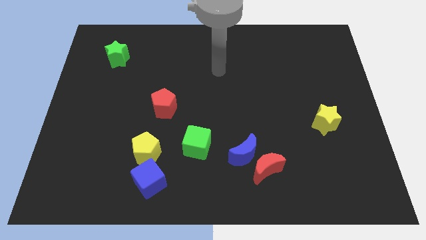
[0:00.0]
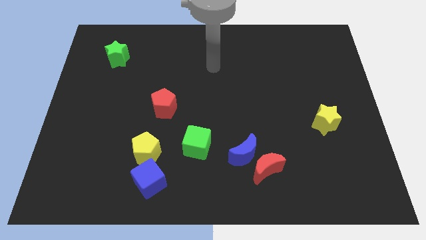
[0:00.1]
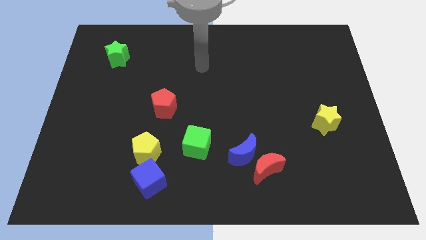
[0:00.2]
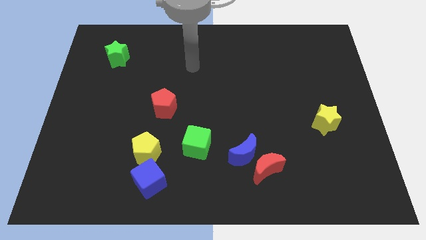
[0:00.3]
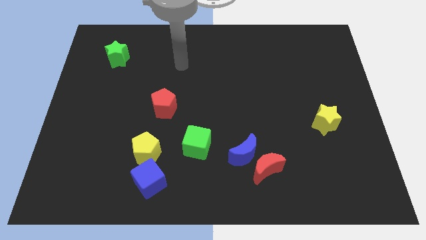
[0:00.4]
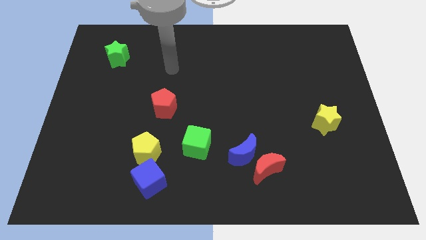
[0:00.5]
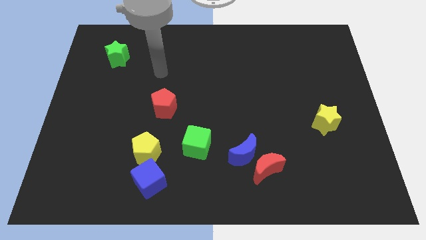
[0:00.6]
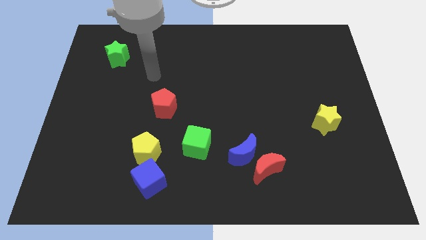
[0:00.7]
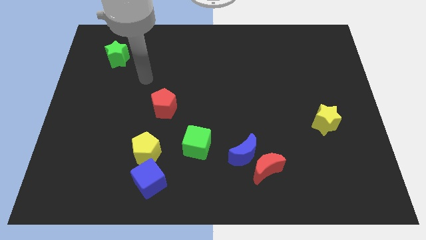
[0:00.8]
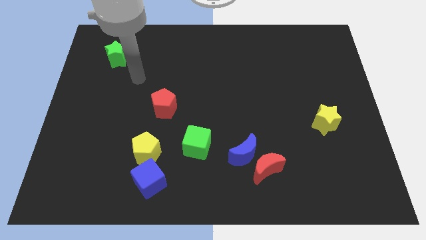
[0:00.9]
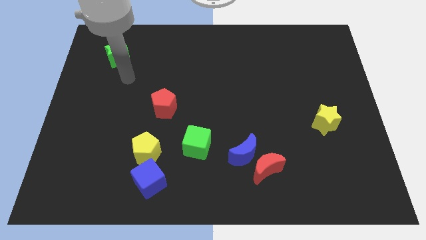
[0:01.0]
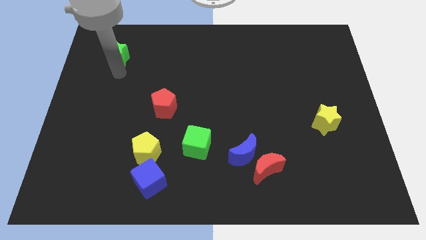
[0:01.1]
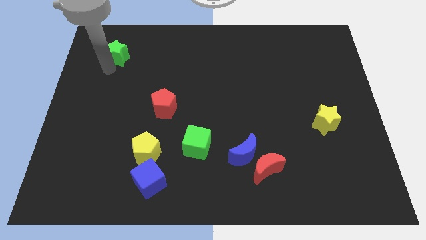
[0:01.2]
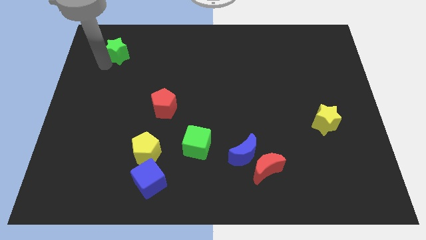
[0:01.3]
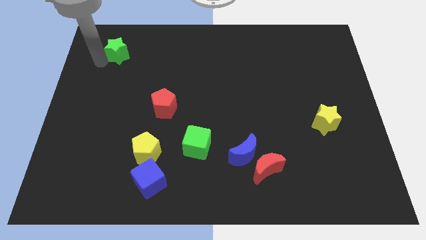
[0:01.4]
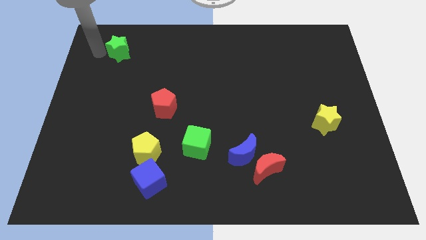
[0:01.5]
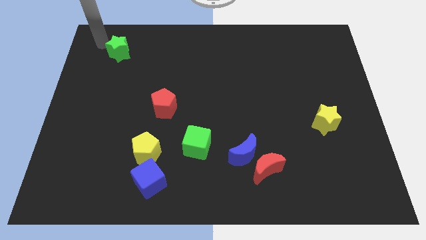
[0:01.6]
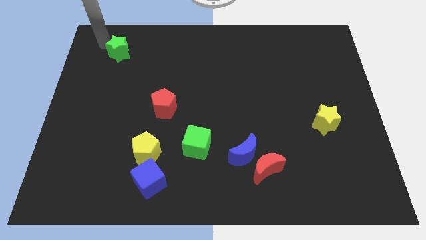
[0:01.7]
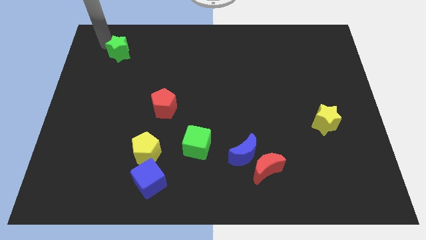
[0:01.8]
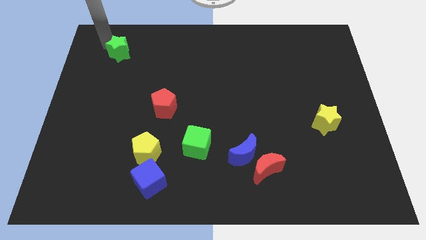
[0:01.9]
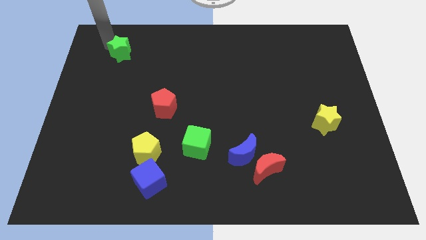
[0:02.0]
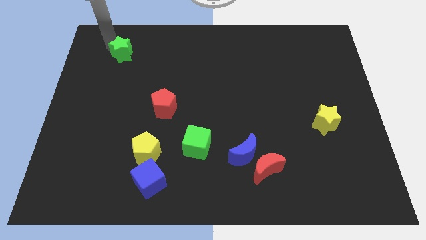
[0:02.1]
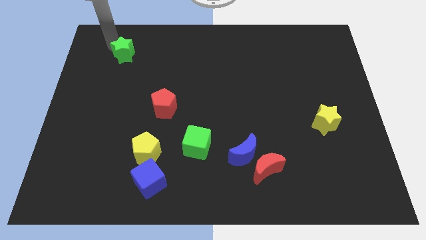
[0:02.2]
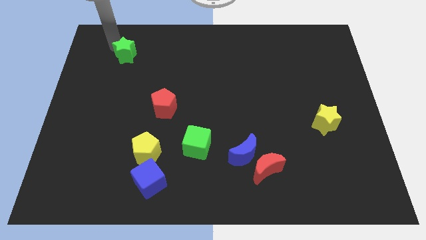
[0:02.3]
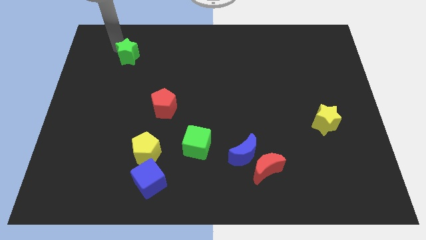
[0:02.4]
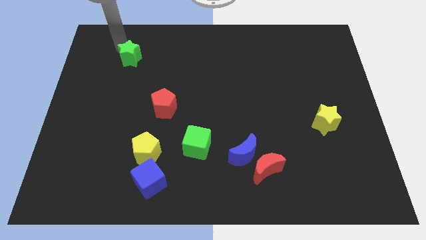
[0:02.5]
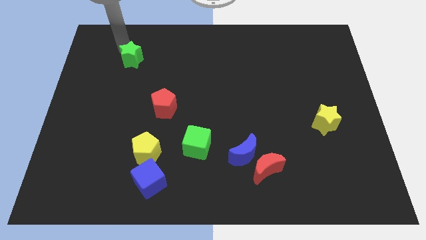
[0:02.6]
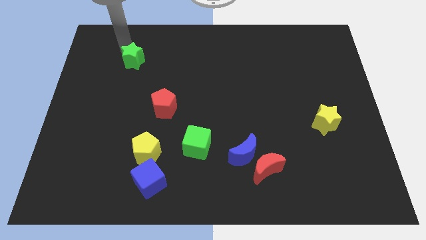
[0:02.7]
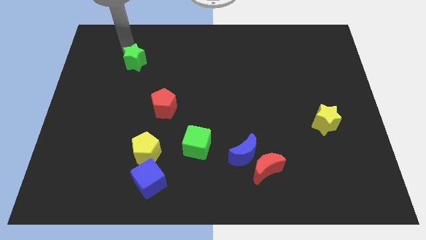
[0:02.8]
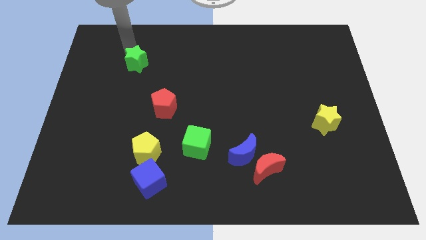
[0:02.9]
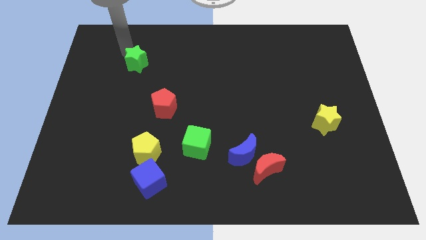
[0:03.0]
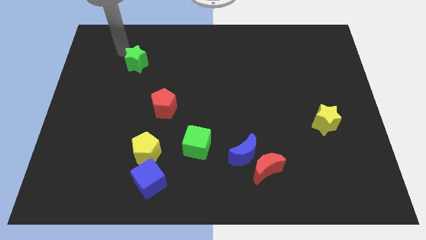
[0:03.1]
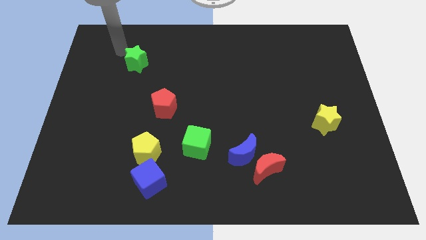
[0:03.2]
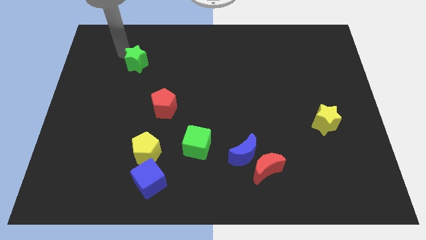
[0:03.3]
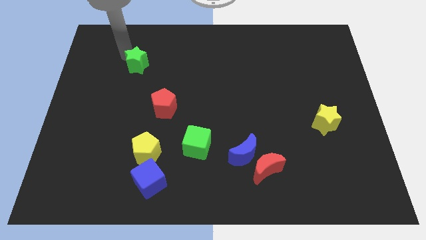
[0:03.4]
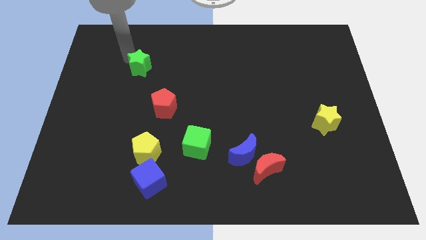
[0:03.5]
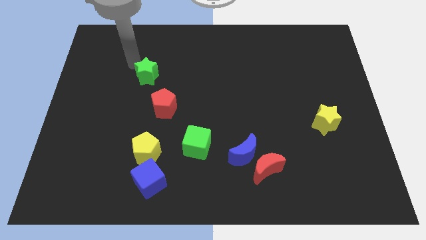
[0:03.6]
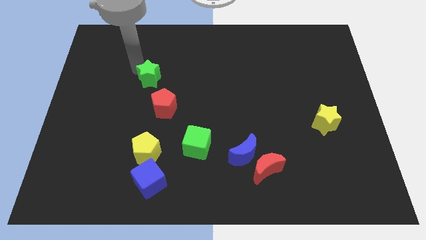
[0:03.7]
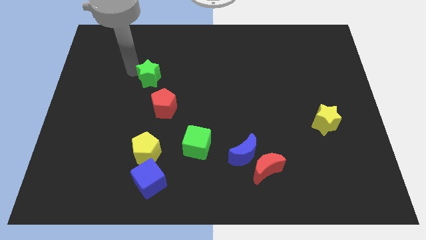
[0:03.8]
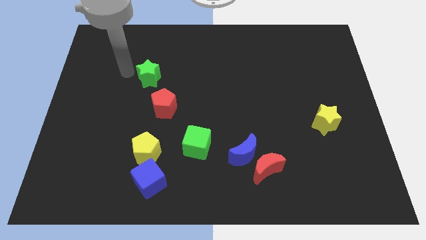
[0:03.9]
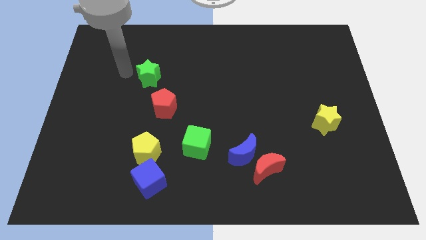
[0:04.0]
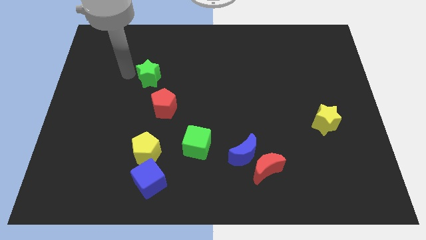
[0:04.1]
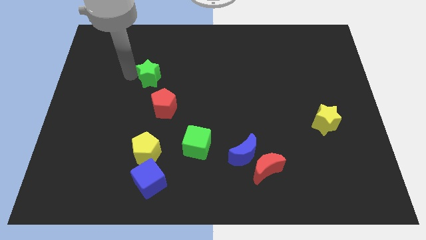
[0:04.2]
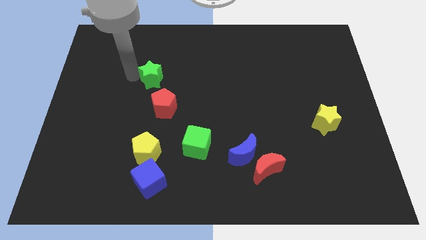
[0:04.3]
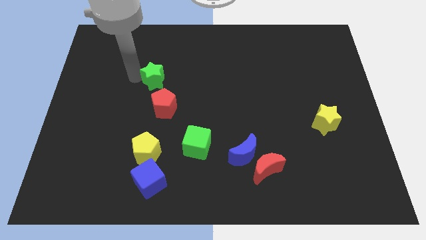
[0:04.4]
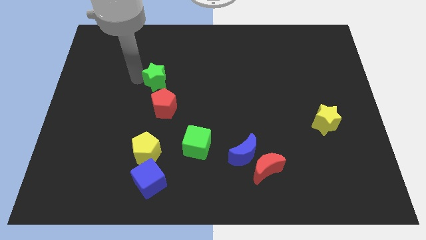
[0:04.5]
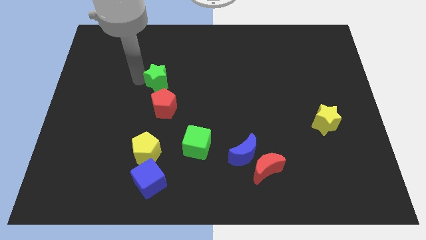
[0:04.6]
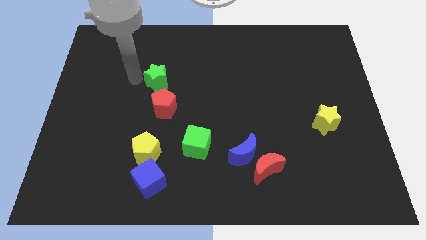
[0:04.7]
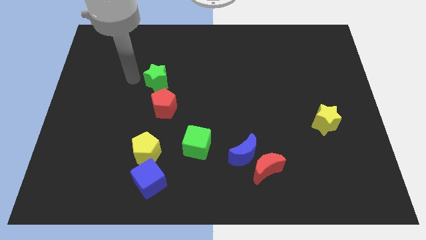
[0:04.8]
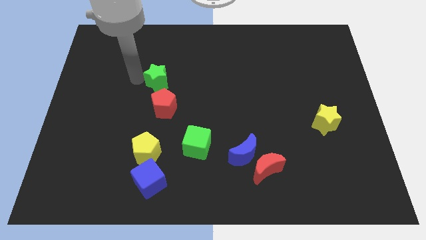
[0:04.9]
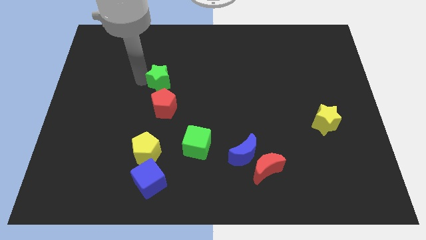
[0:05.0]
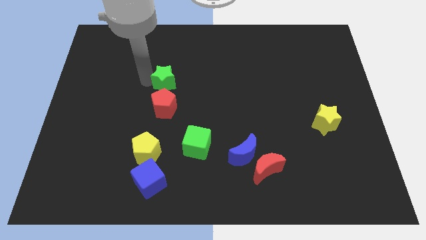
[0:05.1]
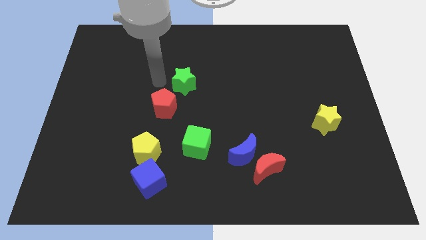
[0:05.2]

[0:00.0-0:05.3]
slide the green star to the middle
